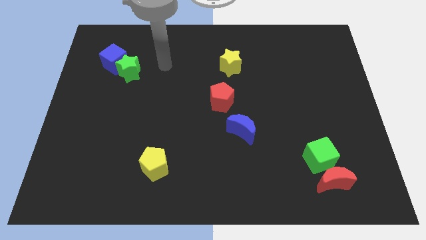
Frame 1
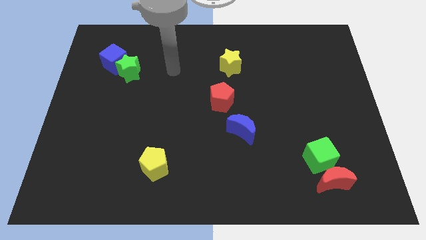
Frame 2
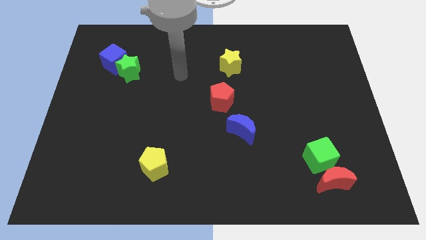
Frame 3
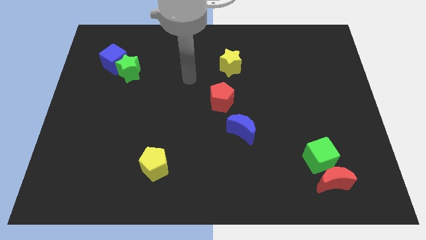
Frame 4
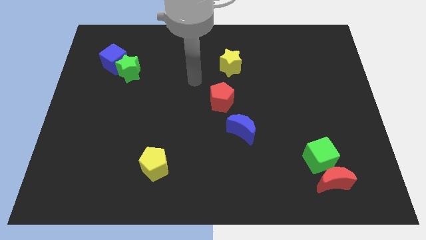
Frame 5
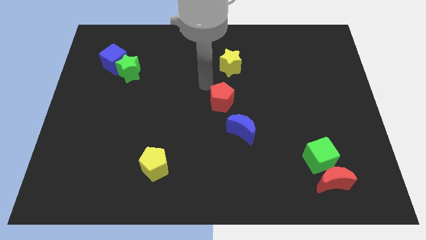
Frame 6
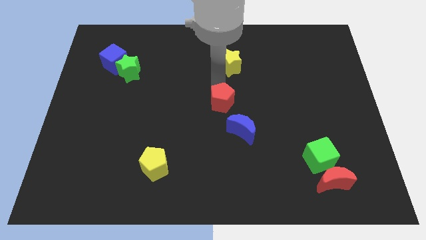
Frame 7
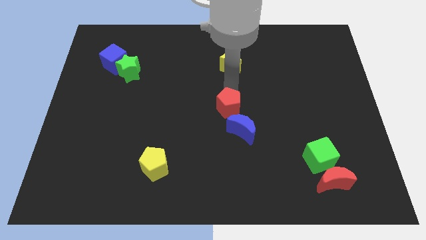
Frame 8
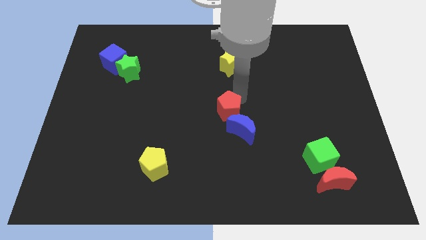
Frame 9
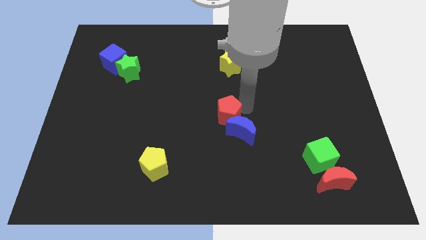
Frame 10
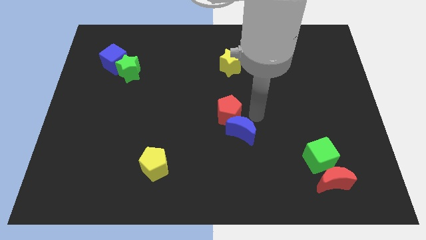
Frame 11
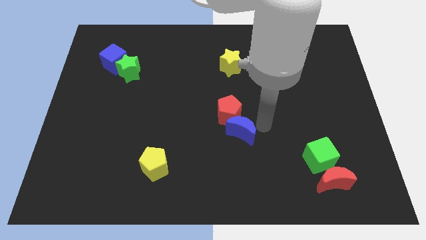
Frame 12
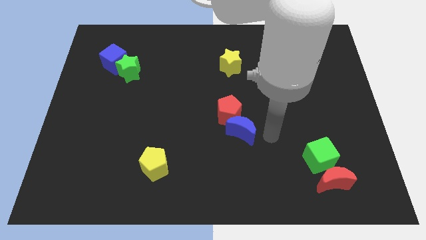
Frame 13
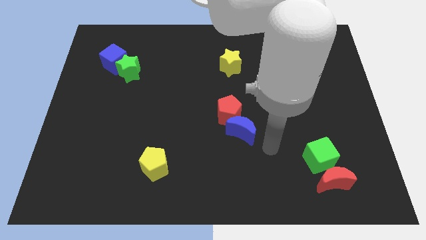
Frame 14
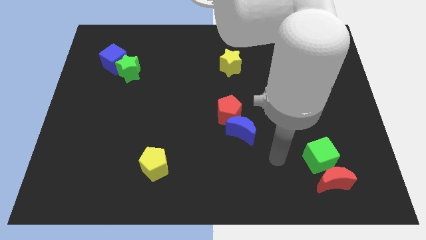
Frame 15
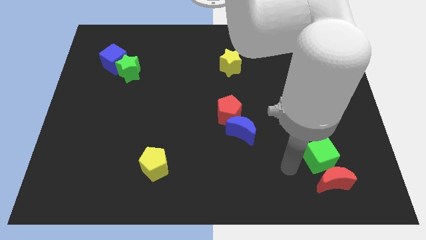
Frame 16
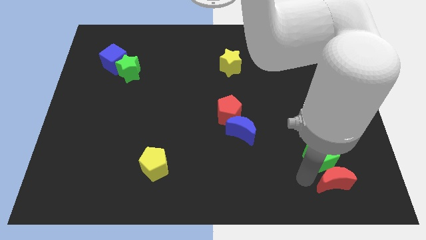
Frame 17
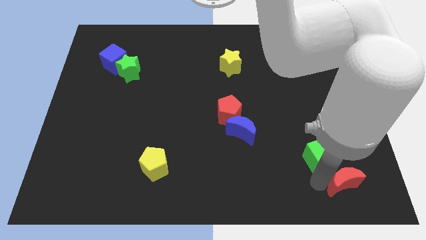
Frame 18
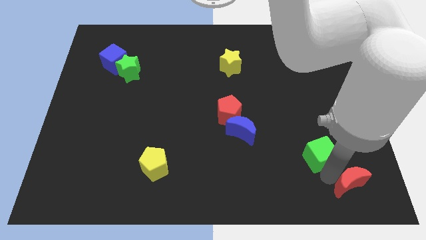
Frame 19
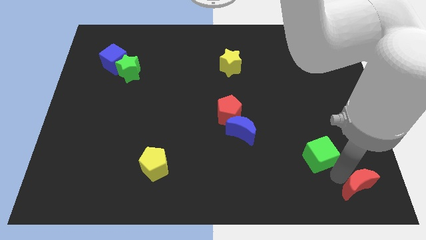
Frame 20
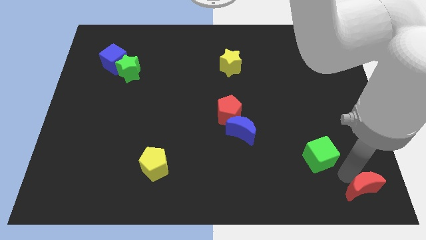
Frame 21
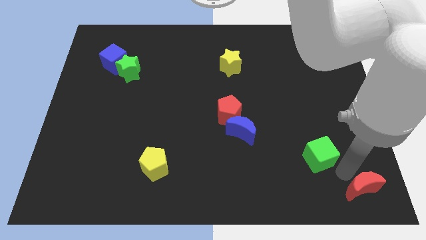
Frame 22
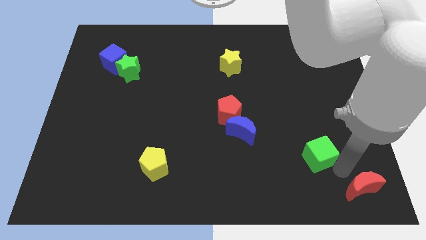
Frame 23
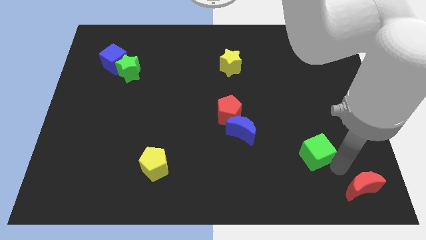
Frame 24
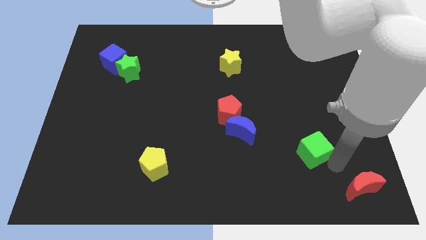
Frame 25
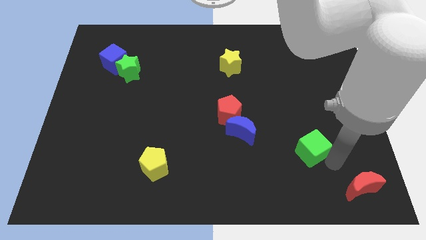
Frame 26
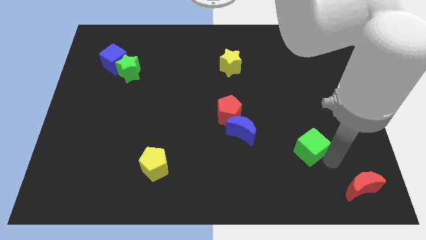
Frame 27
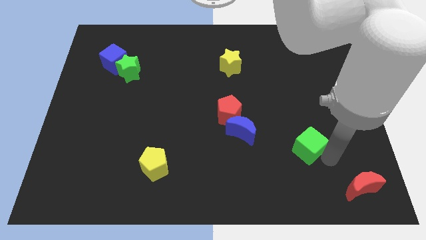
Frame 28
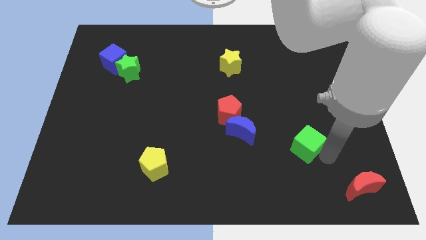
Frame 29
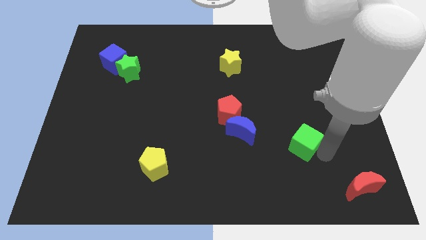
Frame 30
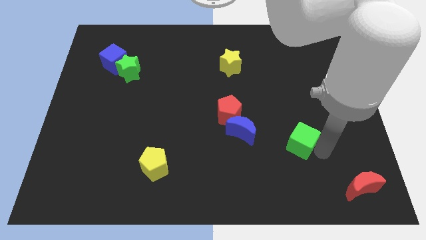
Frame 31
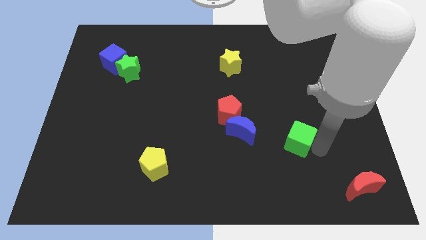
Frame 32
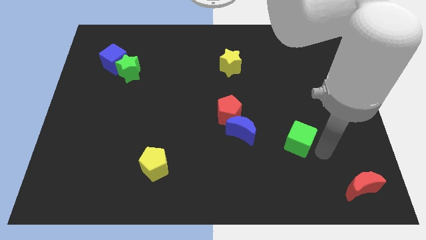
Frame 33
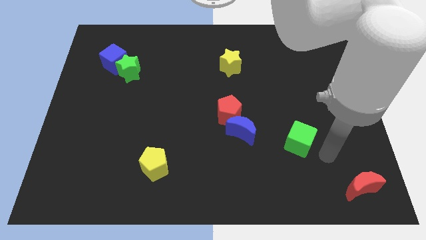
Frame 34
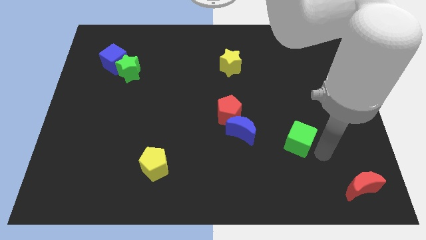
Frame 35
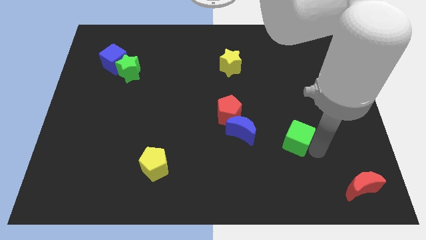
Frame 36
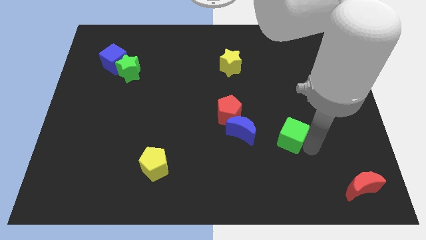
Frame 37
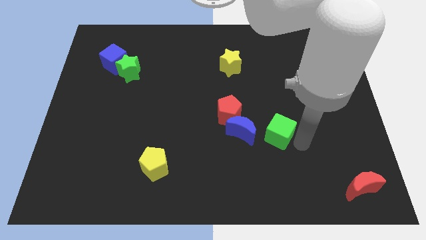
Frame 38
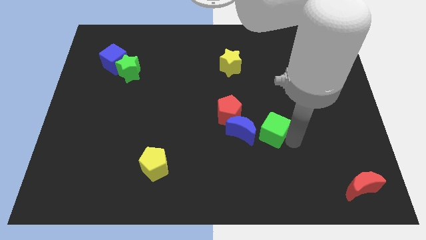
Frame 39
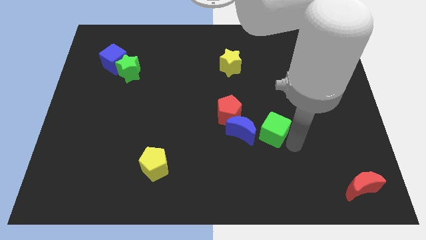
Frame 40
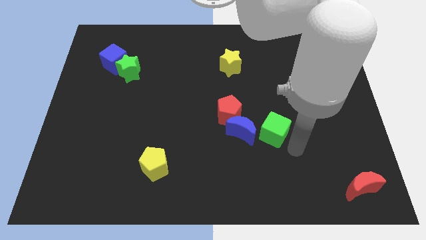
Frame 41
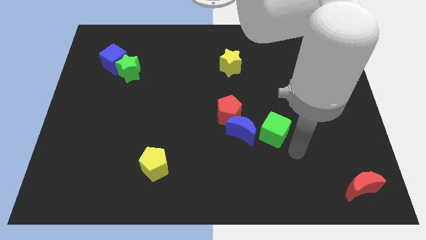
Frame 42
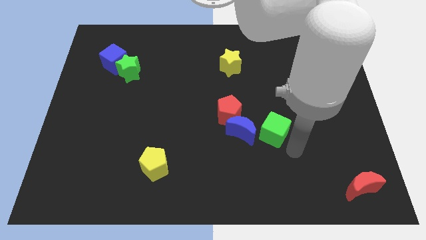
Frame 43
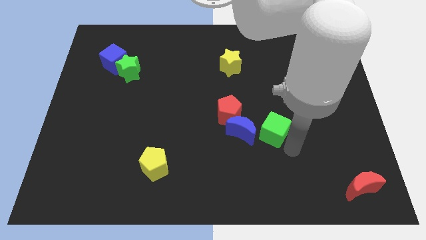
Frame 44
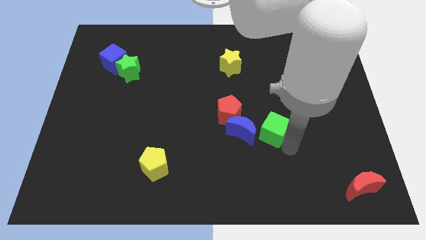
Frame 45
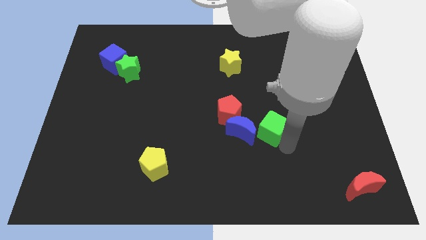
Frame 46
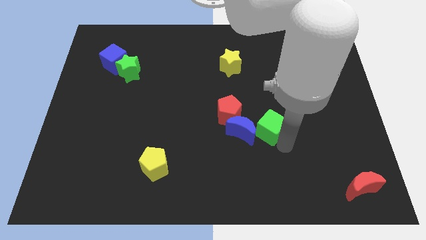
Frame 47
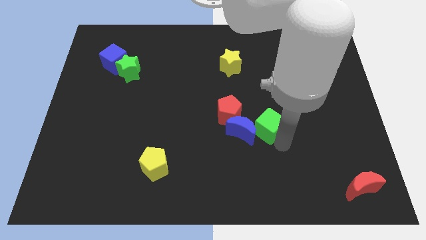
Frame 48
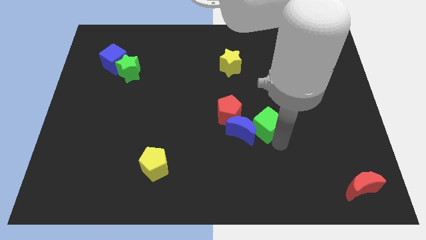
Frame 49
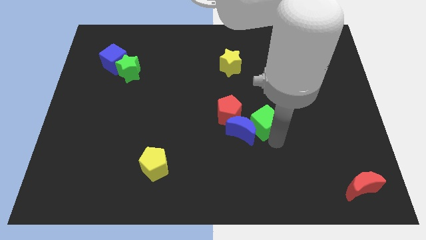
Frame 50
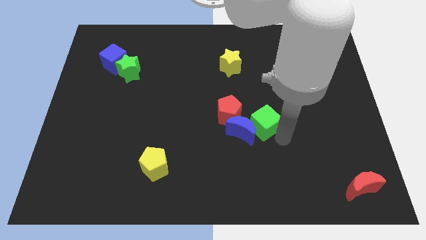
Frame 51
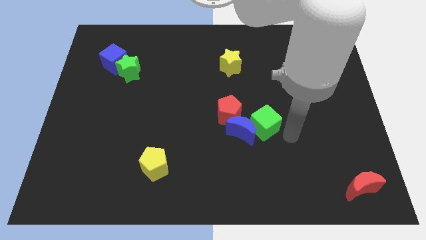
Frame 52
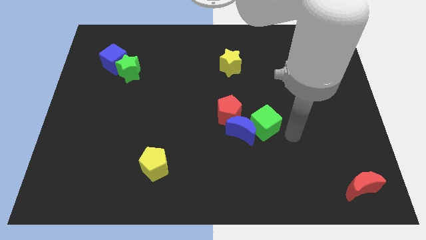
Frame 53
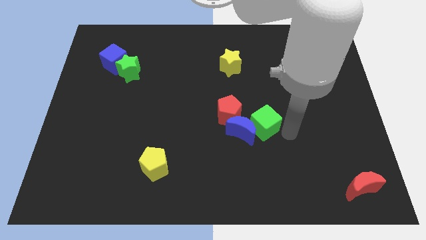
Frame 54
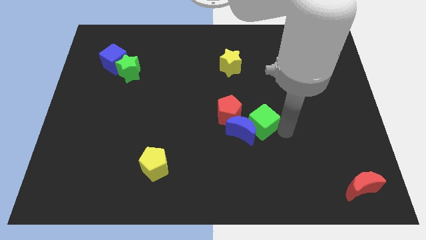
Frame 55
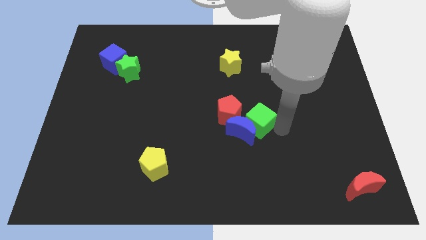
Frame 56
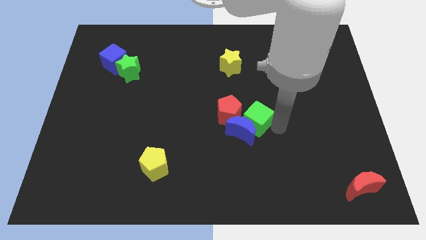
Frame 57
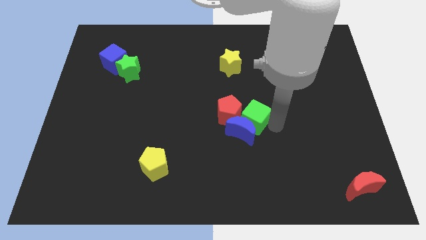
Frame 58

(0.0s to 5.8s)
push the green cube towards the red pentagon
